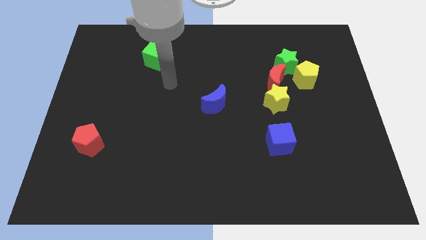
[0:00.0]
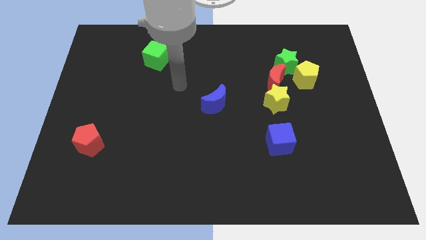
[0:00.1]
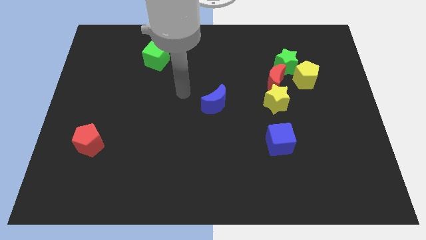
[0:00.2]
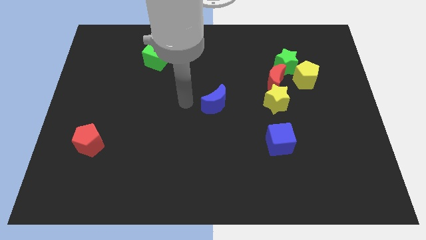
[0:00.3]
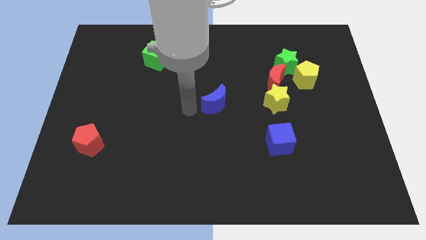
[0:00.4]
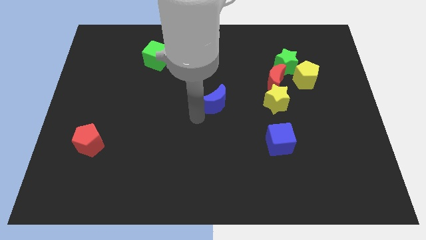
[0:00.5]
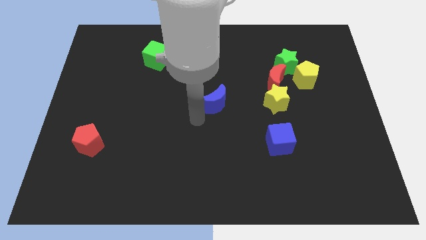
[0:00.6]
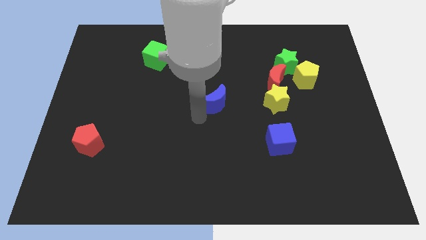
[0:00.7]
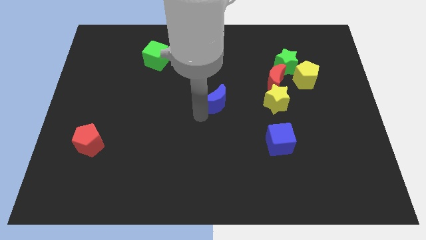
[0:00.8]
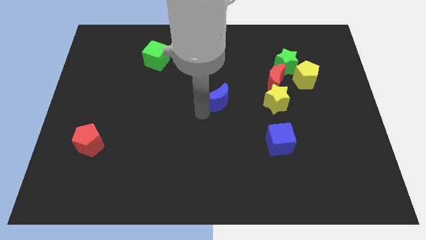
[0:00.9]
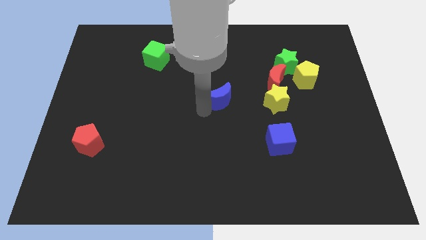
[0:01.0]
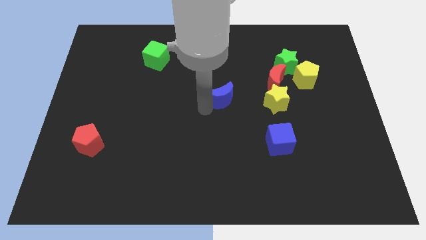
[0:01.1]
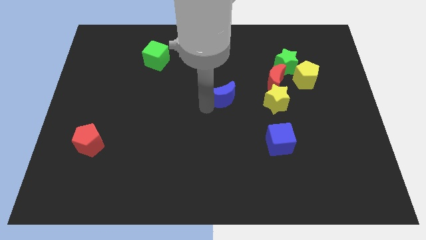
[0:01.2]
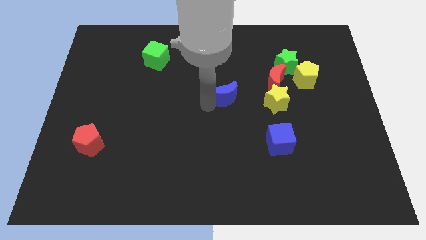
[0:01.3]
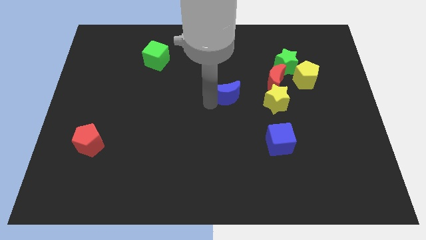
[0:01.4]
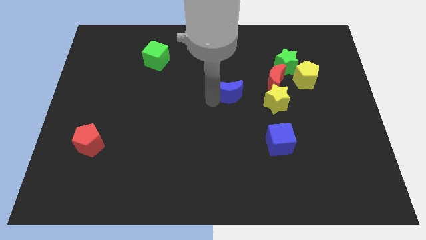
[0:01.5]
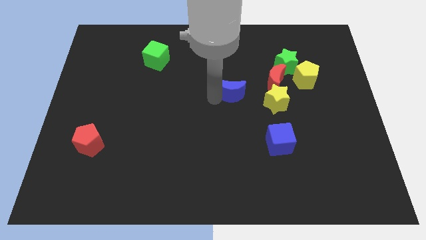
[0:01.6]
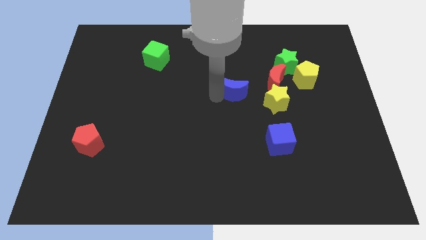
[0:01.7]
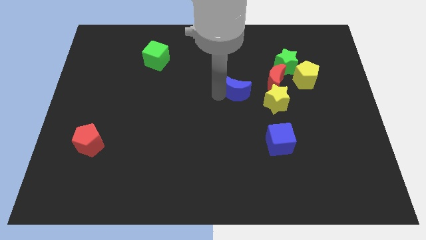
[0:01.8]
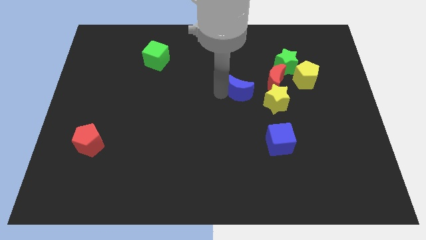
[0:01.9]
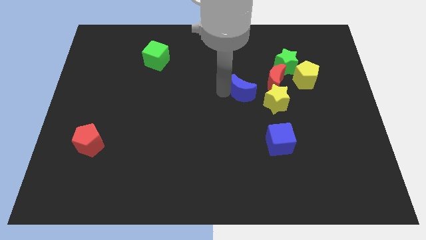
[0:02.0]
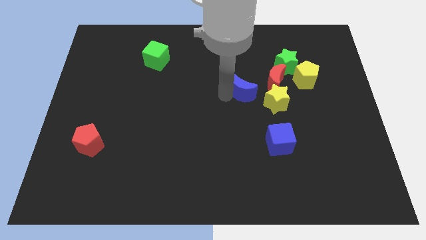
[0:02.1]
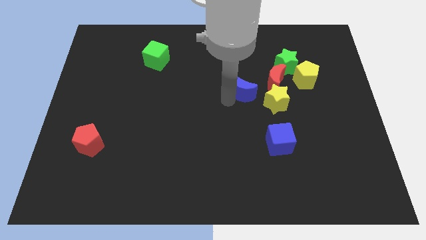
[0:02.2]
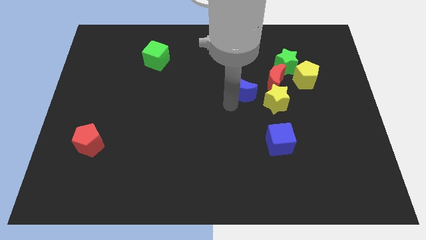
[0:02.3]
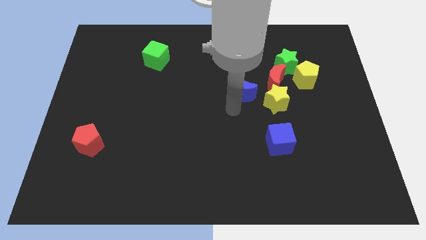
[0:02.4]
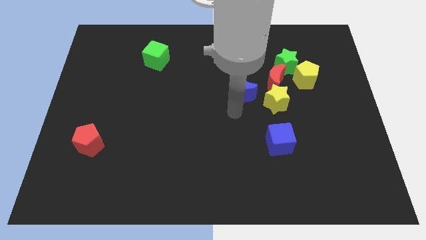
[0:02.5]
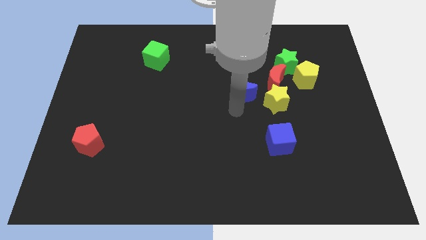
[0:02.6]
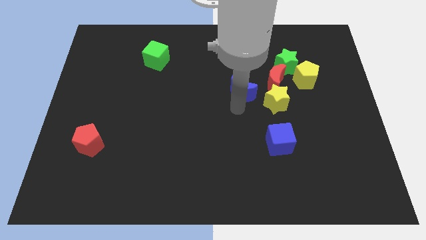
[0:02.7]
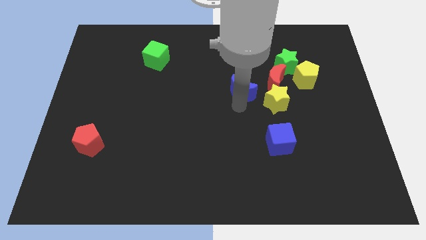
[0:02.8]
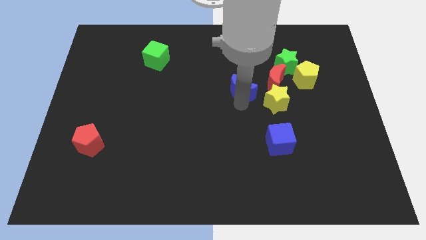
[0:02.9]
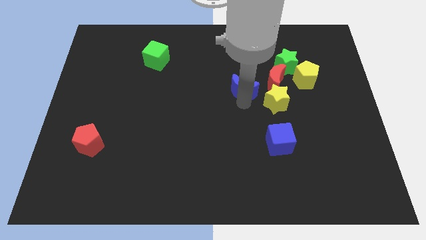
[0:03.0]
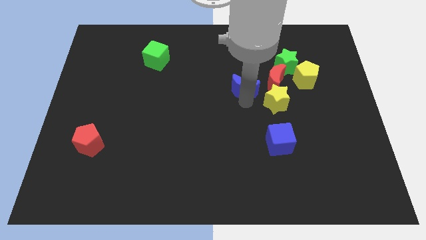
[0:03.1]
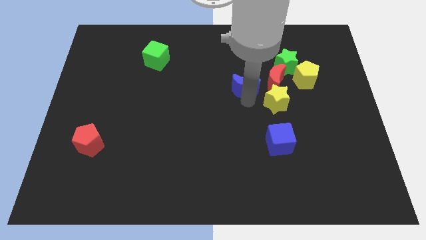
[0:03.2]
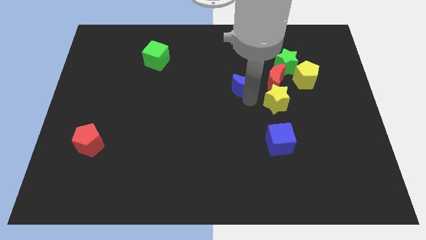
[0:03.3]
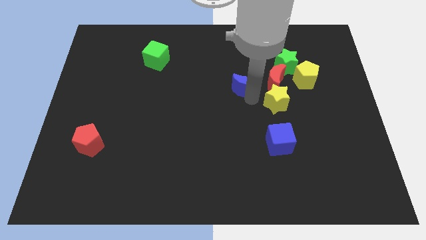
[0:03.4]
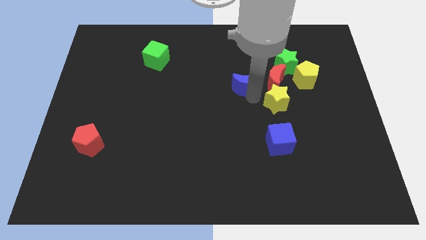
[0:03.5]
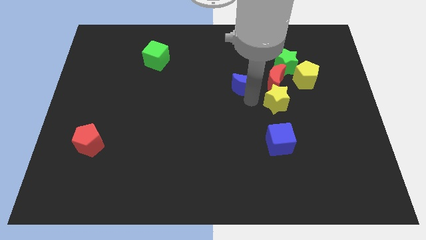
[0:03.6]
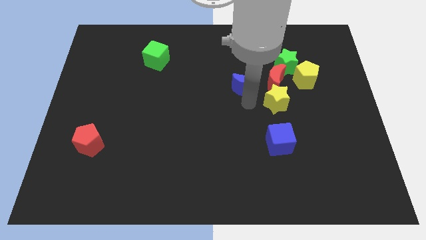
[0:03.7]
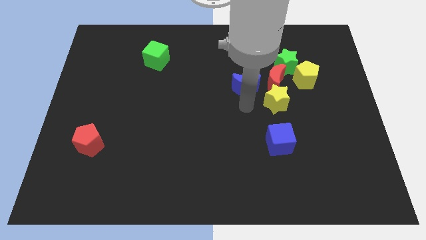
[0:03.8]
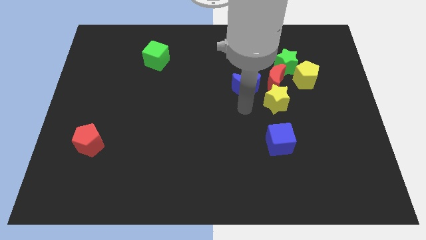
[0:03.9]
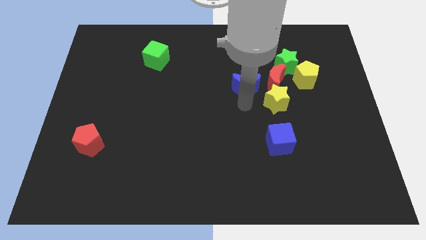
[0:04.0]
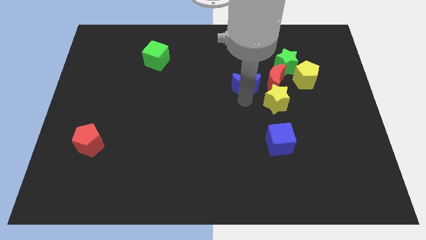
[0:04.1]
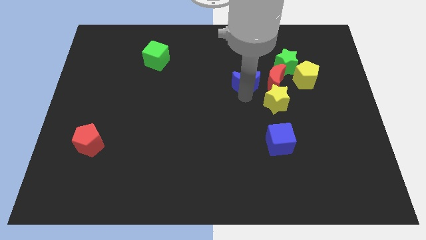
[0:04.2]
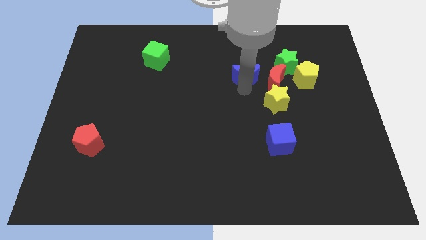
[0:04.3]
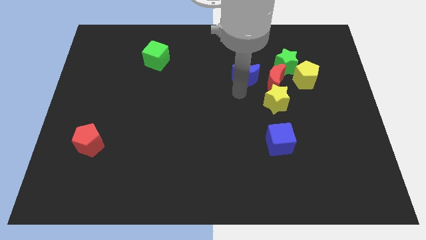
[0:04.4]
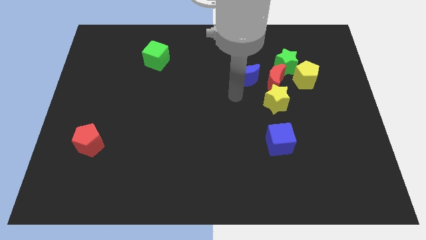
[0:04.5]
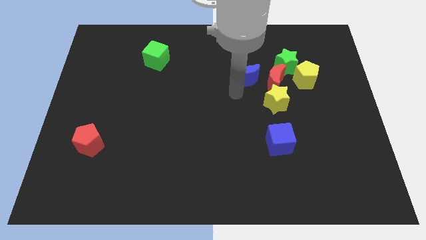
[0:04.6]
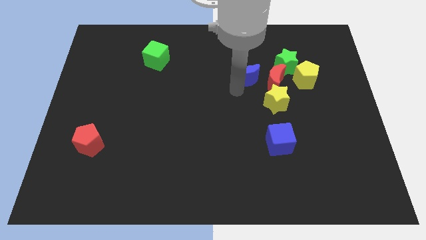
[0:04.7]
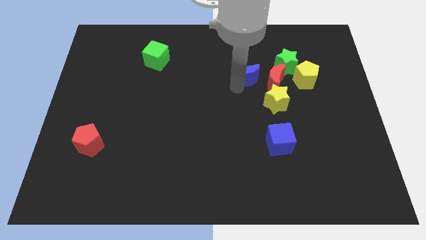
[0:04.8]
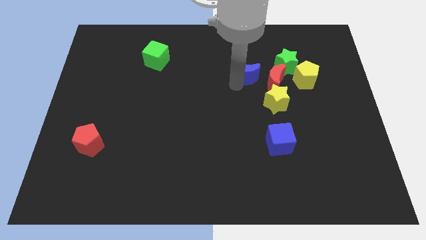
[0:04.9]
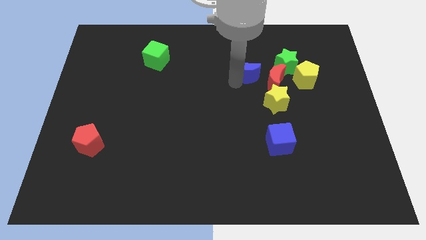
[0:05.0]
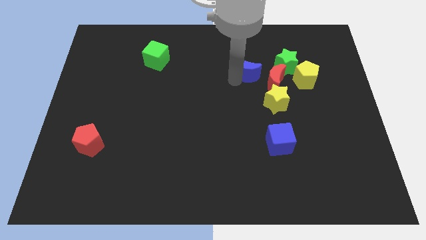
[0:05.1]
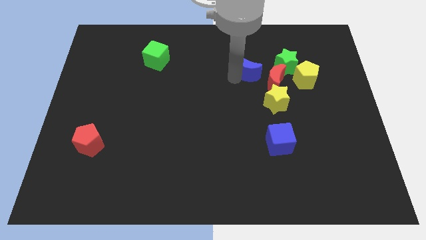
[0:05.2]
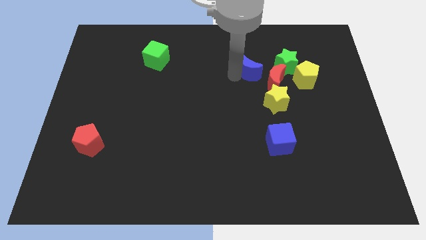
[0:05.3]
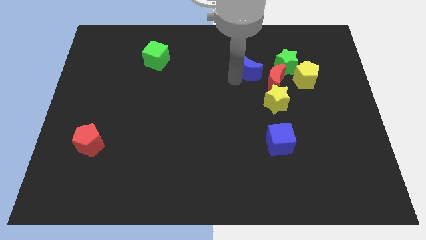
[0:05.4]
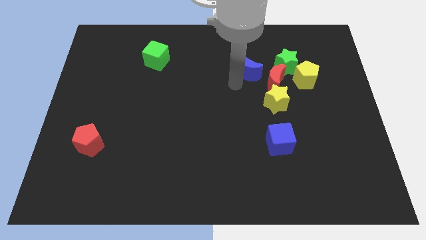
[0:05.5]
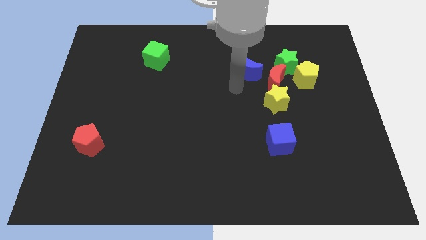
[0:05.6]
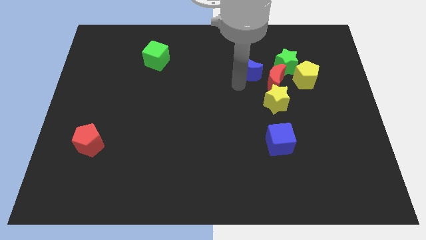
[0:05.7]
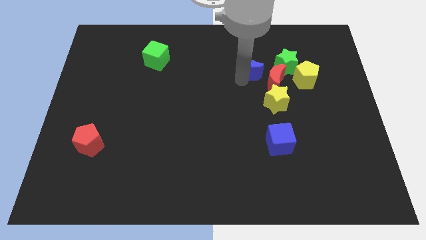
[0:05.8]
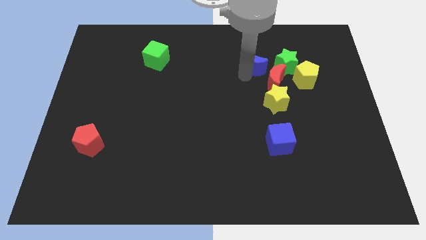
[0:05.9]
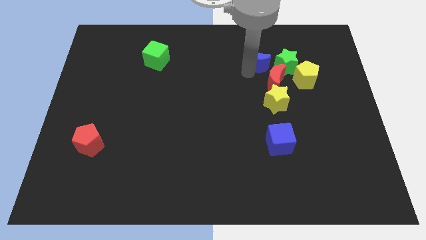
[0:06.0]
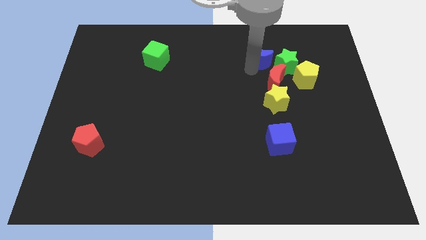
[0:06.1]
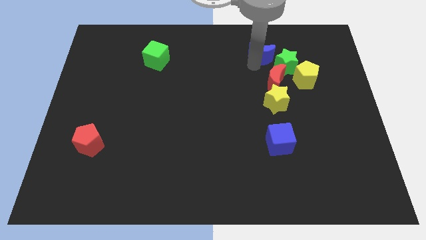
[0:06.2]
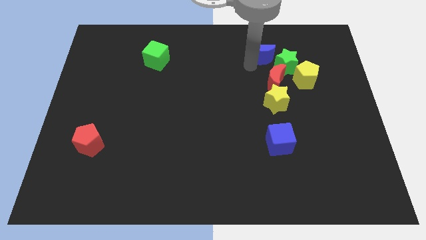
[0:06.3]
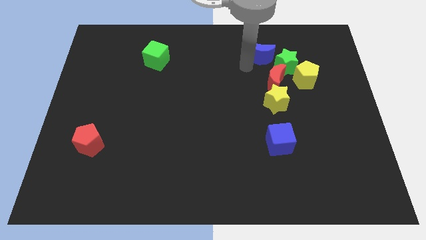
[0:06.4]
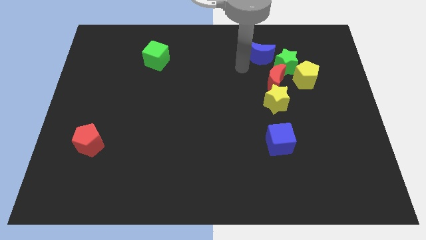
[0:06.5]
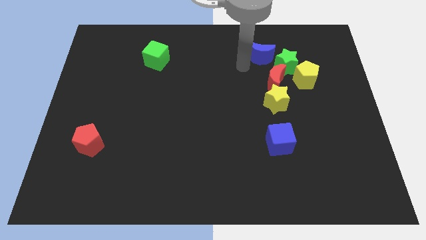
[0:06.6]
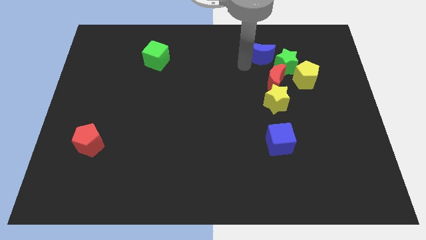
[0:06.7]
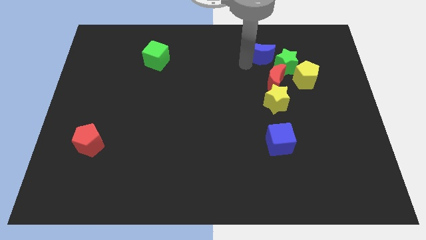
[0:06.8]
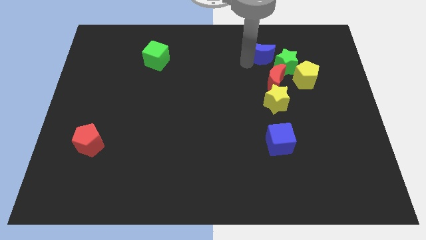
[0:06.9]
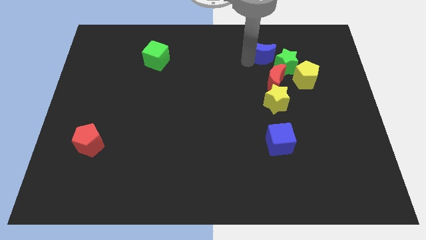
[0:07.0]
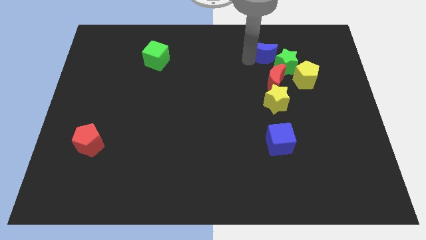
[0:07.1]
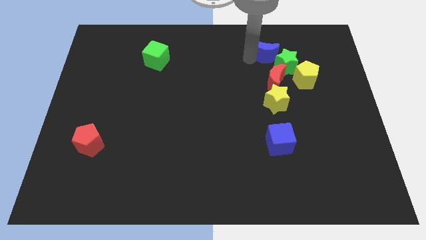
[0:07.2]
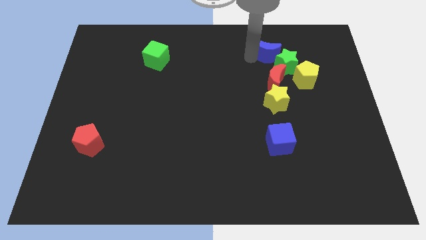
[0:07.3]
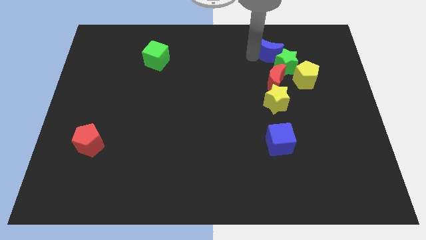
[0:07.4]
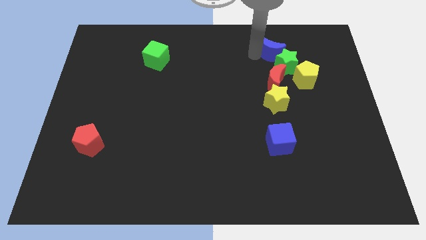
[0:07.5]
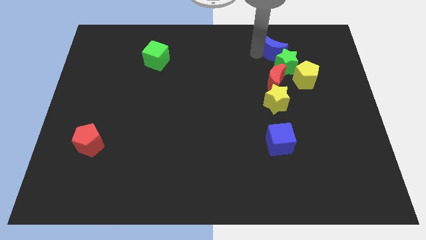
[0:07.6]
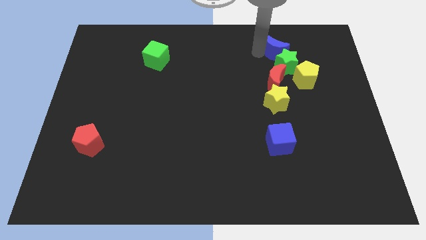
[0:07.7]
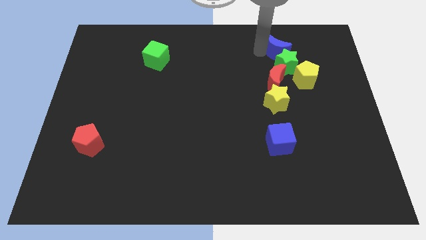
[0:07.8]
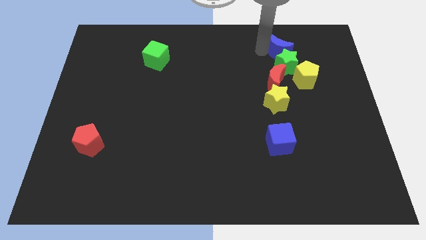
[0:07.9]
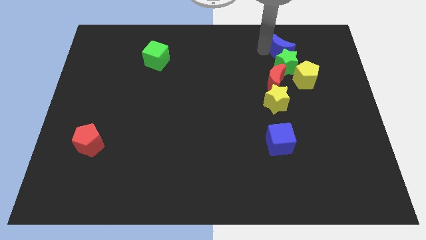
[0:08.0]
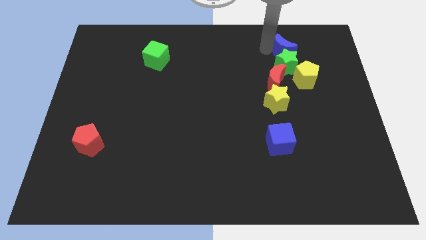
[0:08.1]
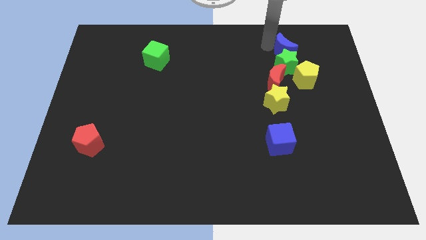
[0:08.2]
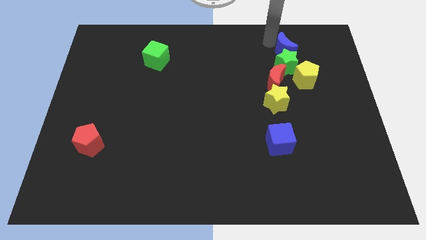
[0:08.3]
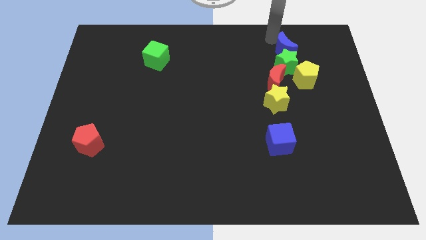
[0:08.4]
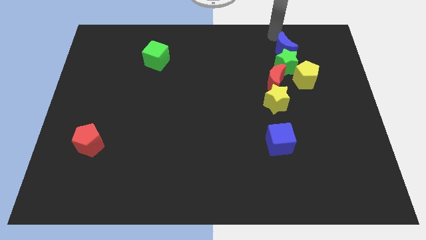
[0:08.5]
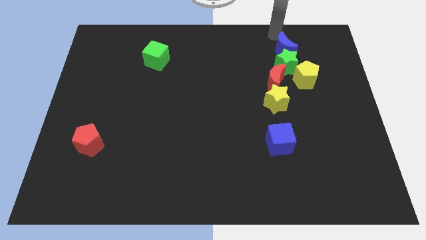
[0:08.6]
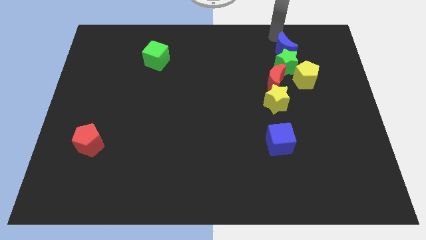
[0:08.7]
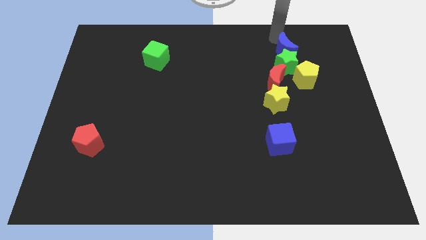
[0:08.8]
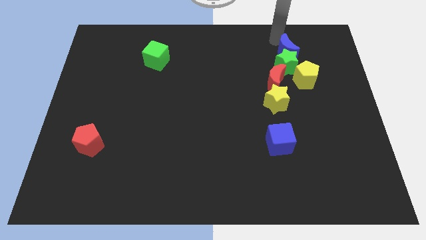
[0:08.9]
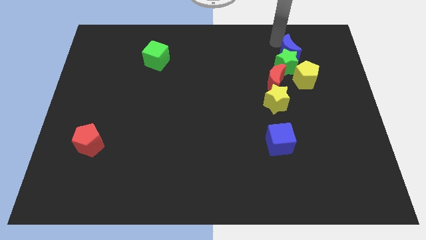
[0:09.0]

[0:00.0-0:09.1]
move the blue moon to the top right side of the red moon
